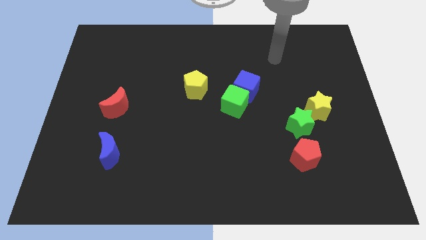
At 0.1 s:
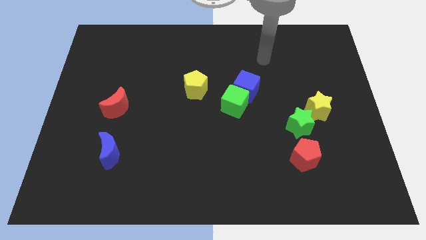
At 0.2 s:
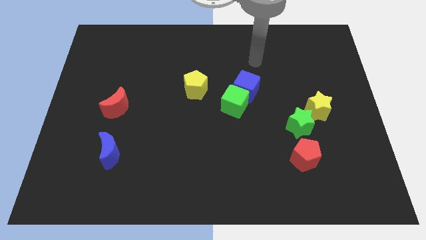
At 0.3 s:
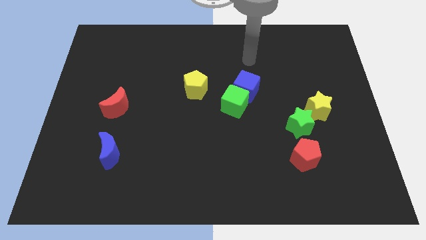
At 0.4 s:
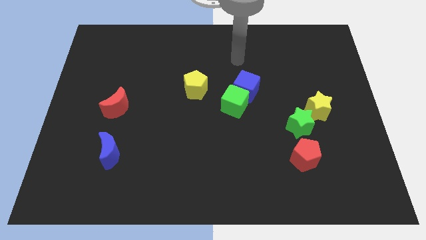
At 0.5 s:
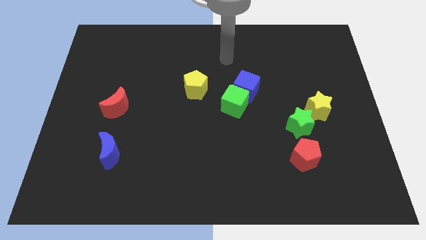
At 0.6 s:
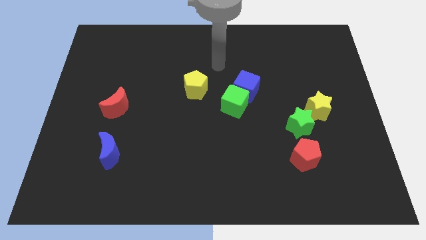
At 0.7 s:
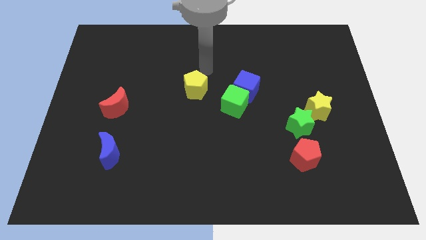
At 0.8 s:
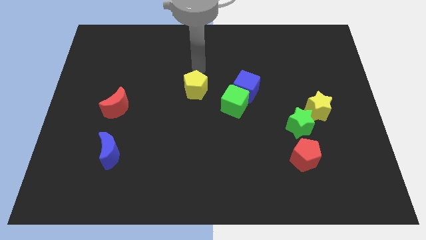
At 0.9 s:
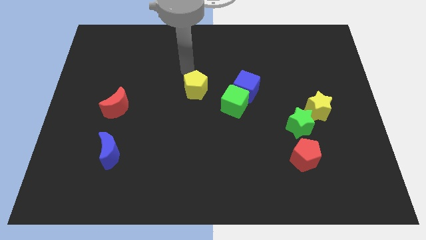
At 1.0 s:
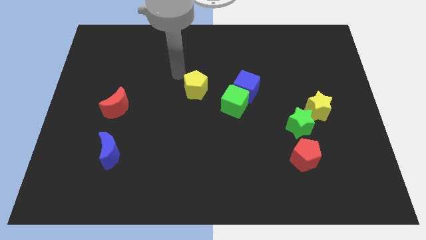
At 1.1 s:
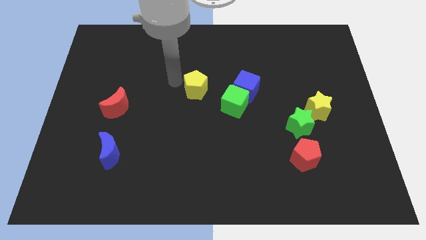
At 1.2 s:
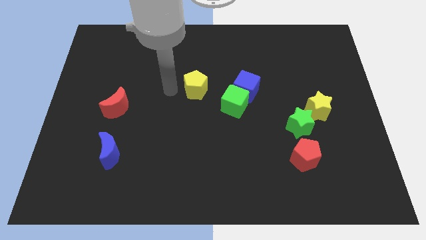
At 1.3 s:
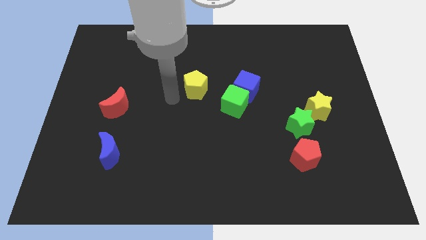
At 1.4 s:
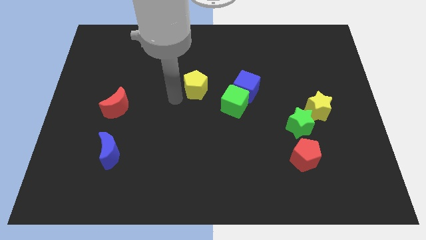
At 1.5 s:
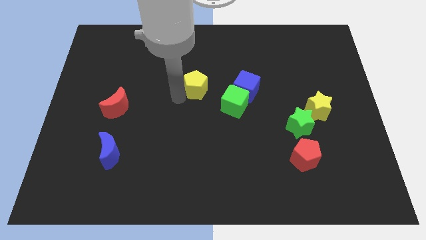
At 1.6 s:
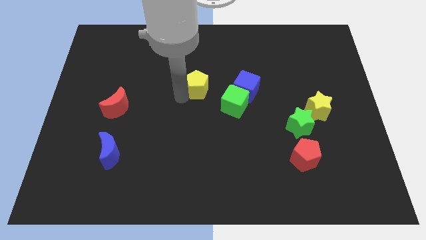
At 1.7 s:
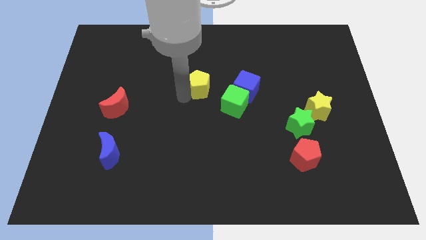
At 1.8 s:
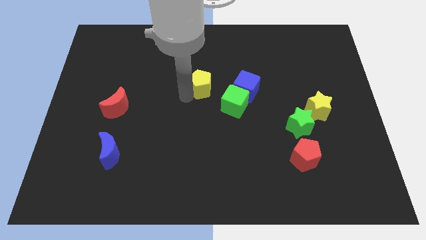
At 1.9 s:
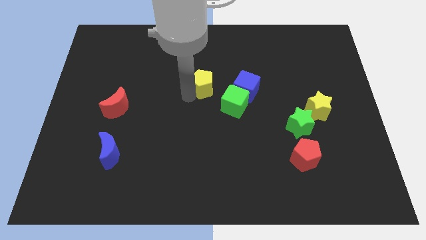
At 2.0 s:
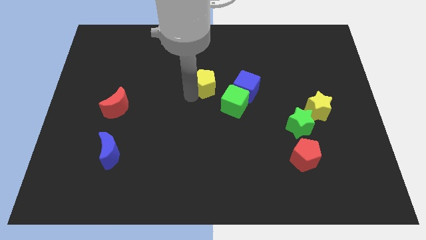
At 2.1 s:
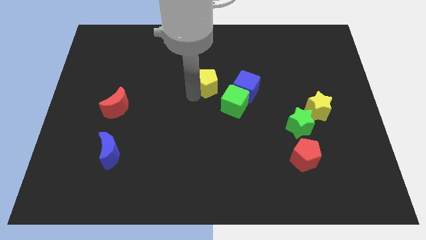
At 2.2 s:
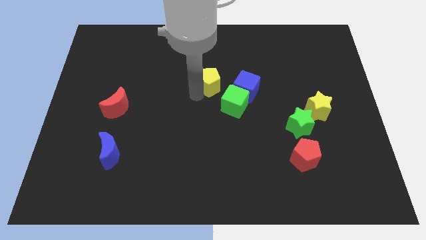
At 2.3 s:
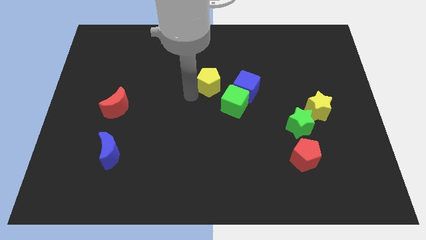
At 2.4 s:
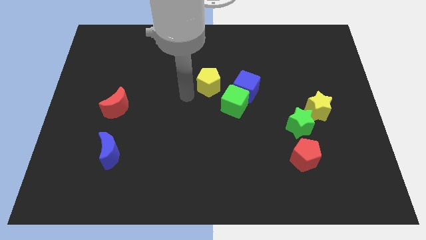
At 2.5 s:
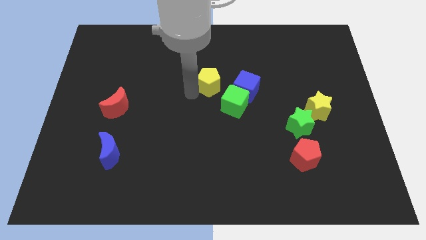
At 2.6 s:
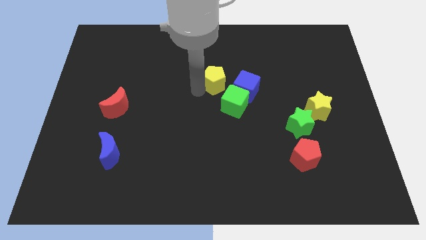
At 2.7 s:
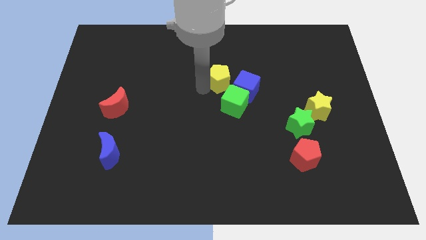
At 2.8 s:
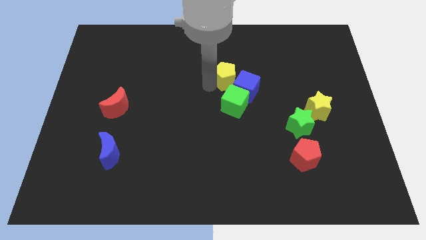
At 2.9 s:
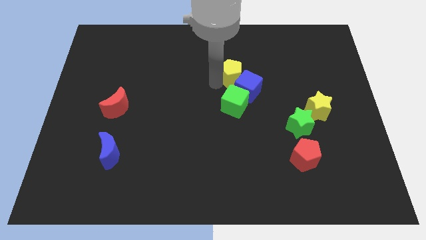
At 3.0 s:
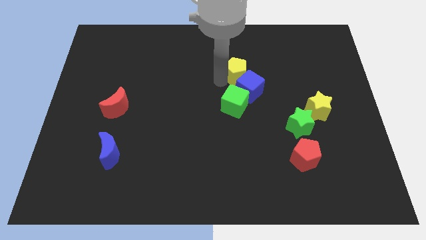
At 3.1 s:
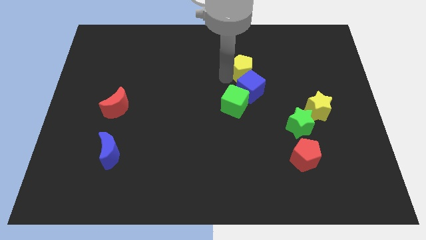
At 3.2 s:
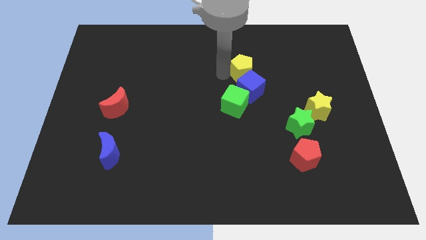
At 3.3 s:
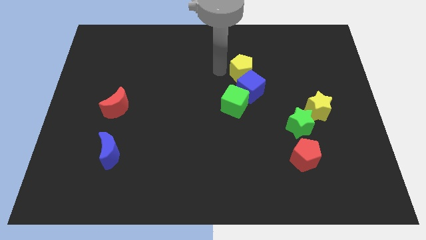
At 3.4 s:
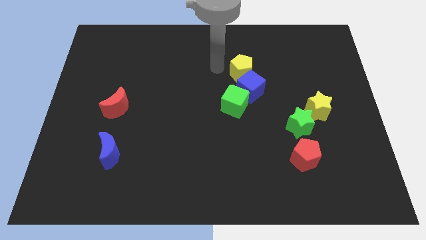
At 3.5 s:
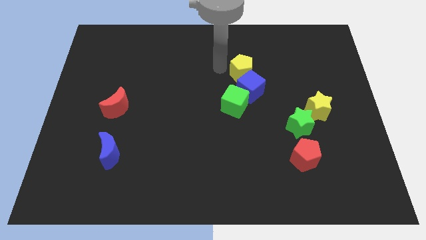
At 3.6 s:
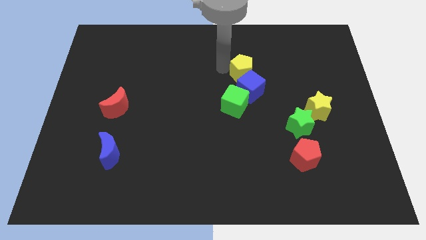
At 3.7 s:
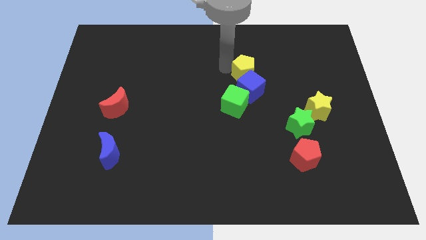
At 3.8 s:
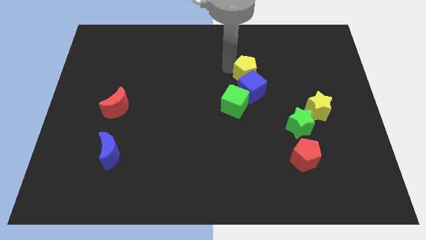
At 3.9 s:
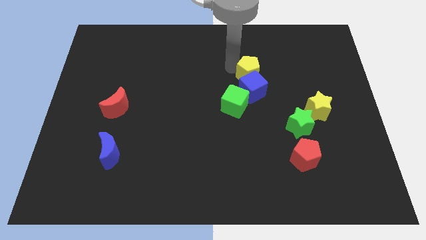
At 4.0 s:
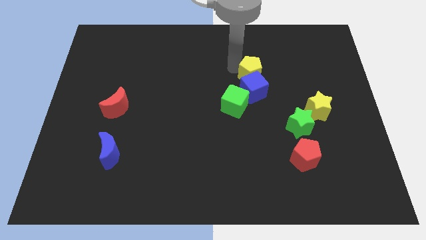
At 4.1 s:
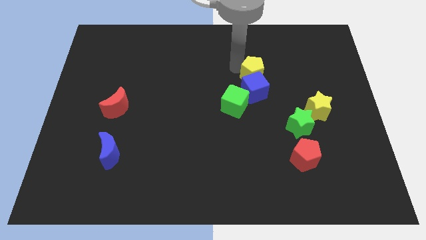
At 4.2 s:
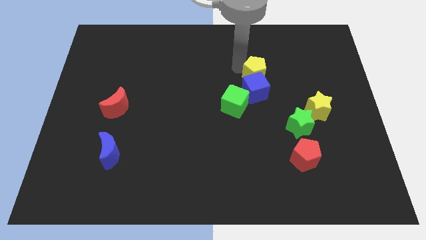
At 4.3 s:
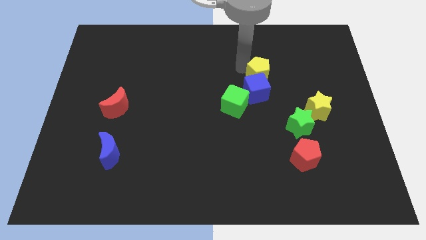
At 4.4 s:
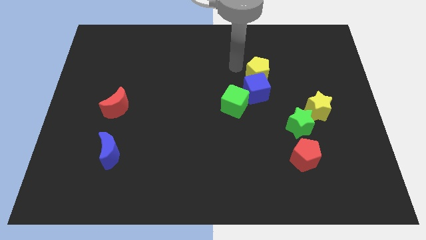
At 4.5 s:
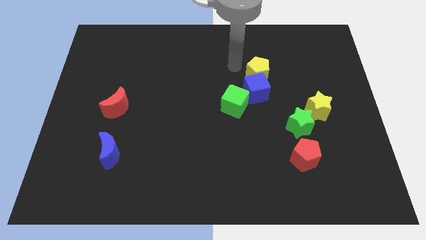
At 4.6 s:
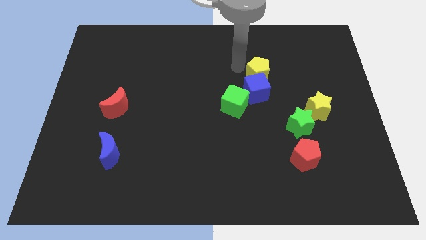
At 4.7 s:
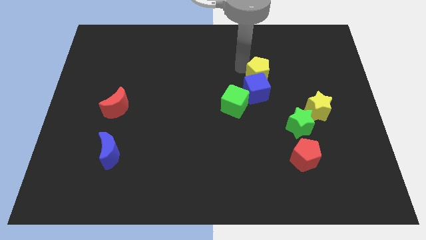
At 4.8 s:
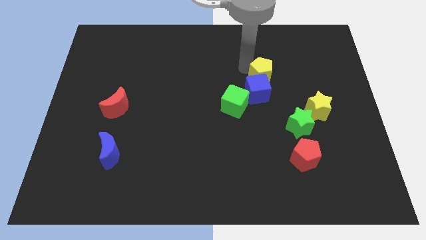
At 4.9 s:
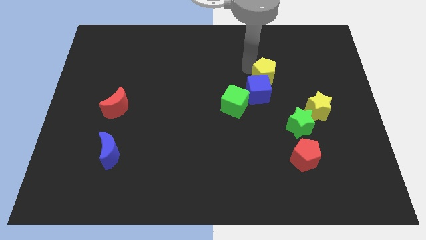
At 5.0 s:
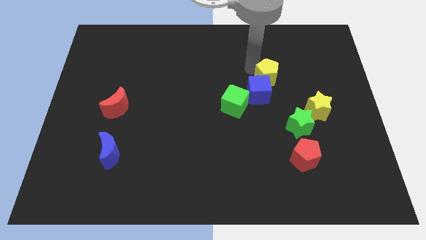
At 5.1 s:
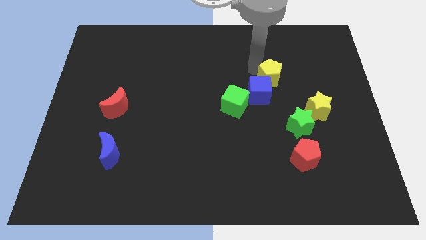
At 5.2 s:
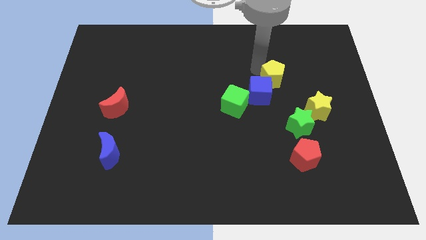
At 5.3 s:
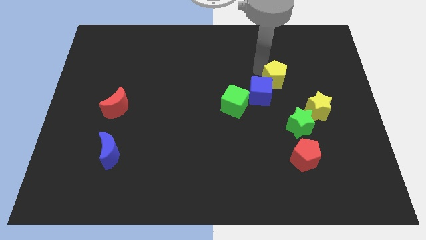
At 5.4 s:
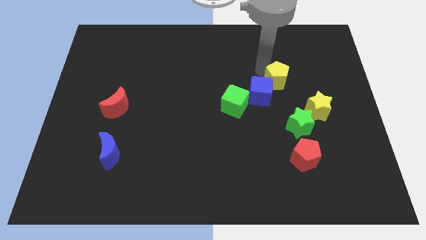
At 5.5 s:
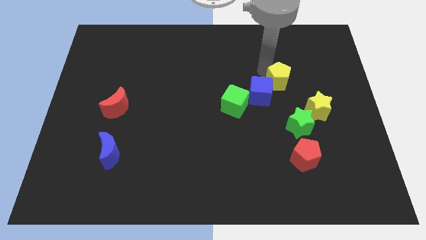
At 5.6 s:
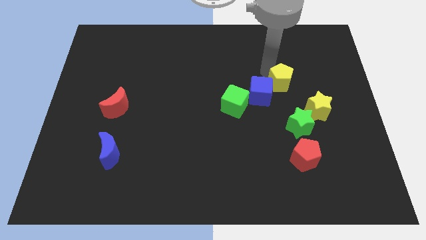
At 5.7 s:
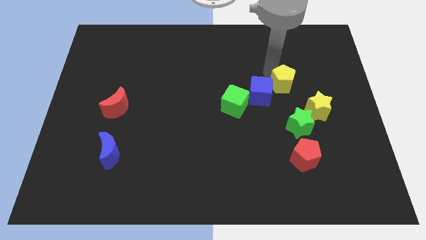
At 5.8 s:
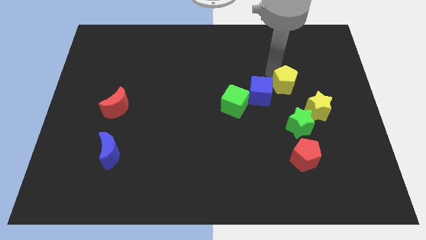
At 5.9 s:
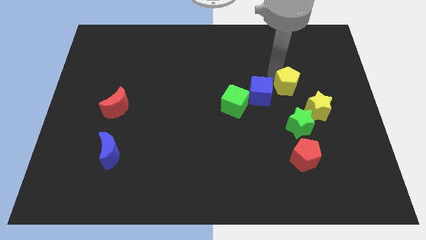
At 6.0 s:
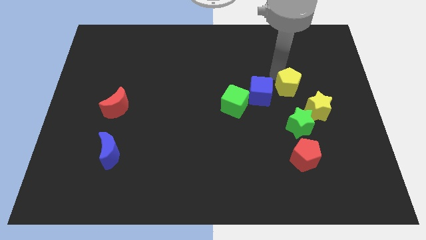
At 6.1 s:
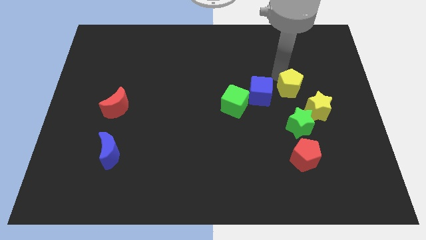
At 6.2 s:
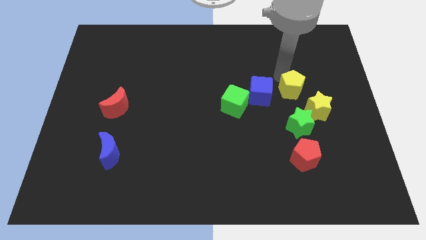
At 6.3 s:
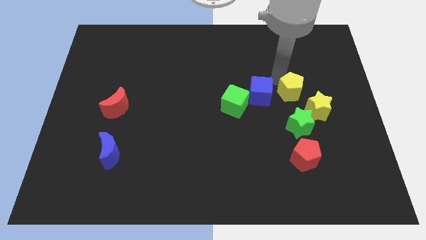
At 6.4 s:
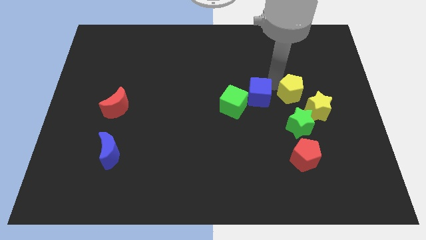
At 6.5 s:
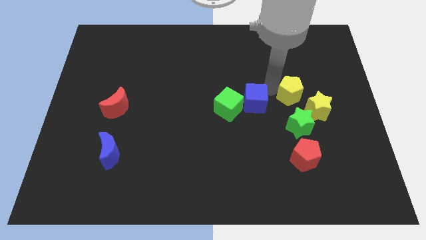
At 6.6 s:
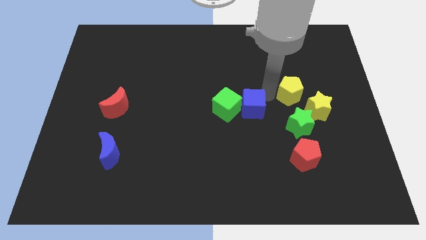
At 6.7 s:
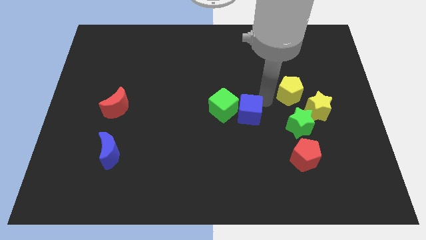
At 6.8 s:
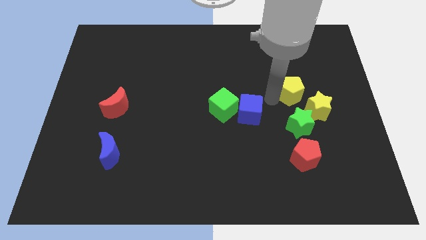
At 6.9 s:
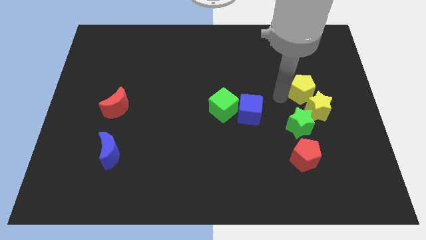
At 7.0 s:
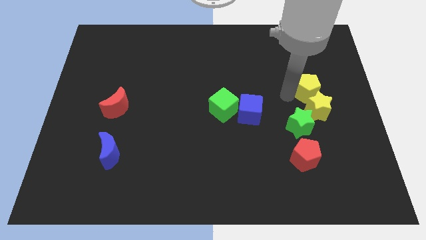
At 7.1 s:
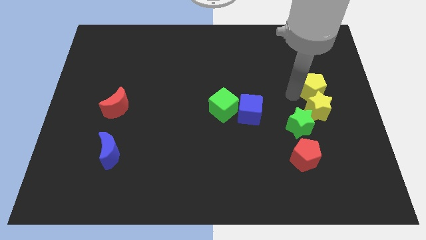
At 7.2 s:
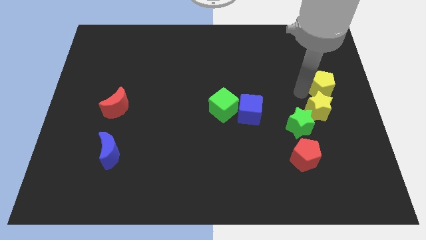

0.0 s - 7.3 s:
push the yellow pentagon to the right side of the board

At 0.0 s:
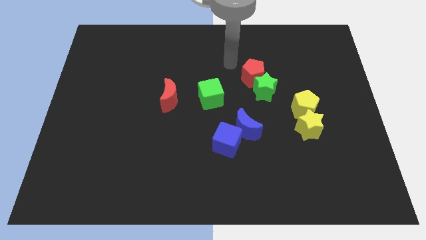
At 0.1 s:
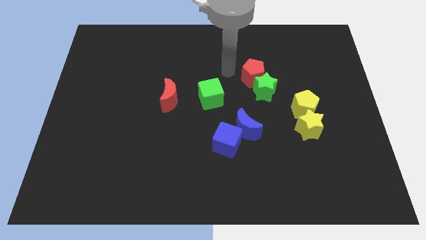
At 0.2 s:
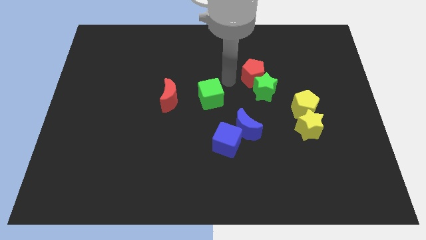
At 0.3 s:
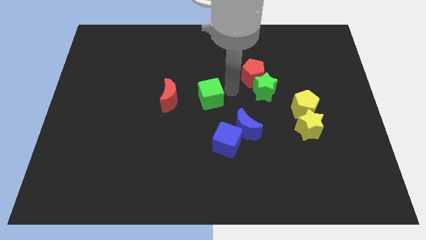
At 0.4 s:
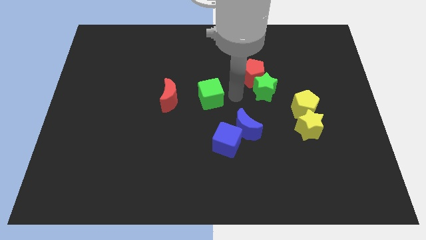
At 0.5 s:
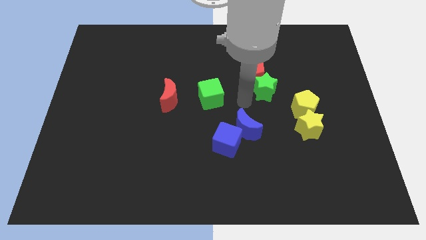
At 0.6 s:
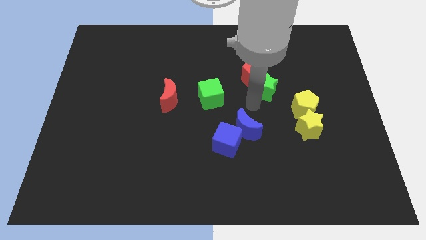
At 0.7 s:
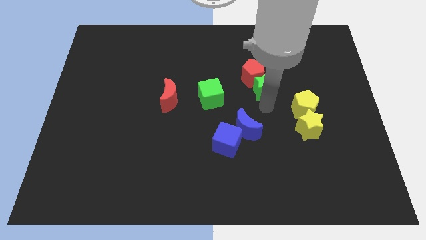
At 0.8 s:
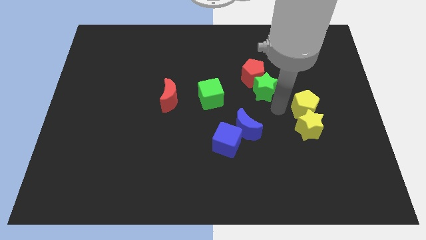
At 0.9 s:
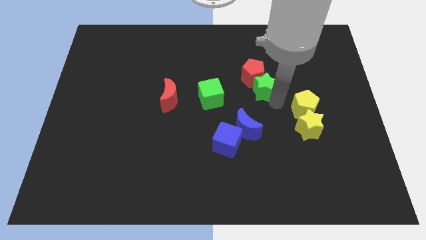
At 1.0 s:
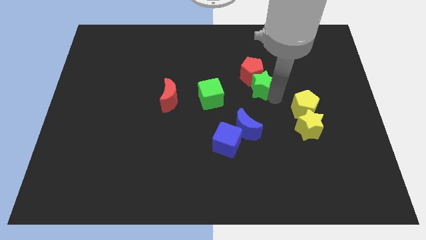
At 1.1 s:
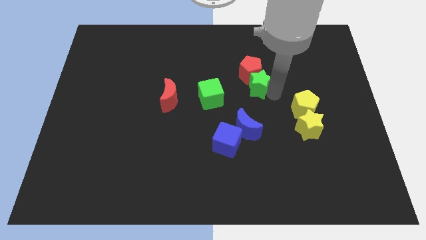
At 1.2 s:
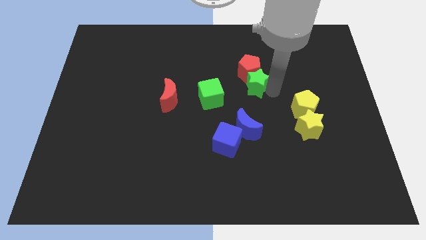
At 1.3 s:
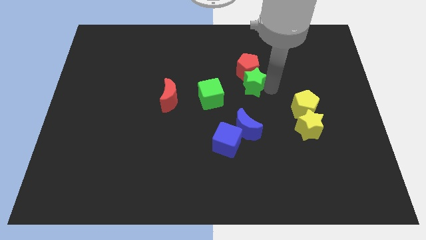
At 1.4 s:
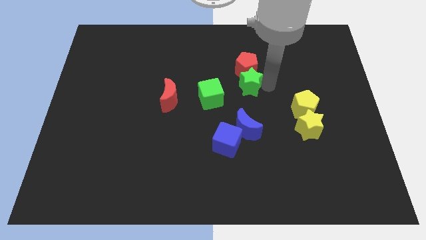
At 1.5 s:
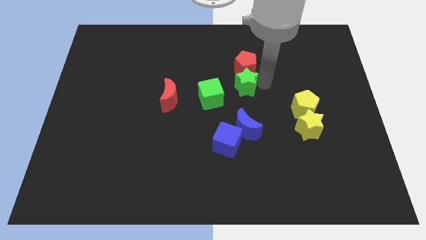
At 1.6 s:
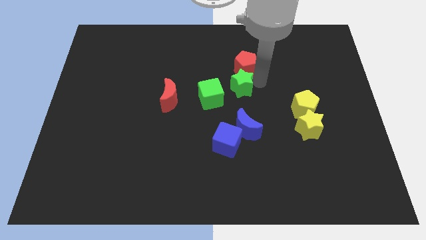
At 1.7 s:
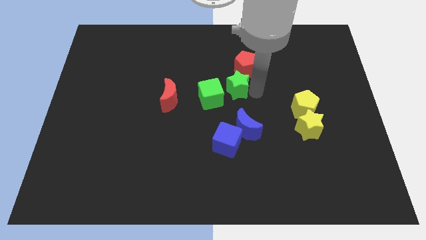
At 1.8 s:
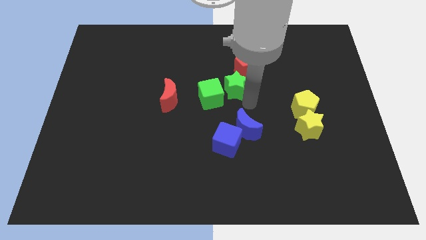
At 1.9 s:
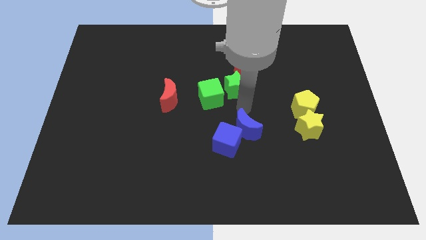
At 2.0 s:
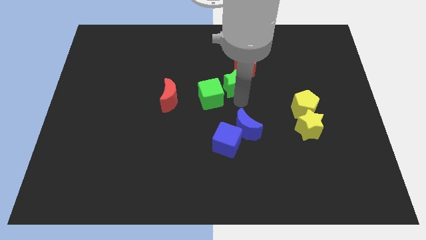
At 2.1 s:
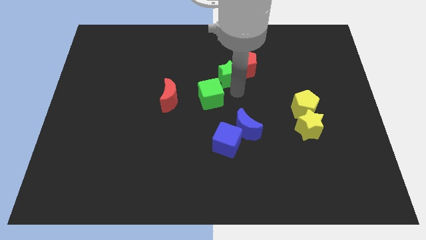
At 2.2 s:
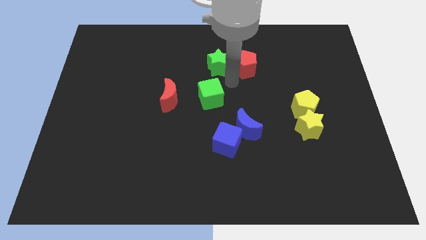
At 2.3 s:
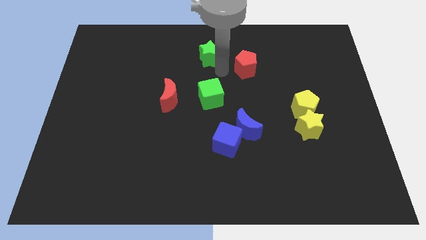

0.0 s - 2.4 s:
move the green star to the top
